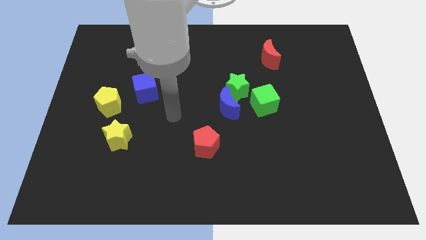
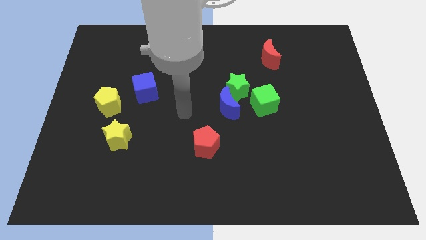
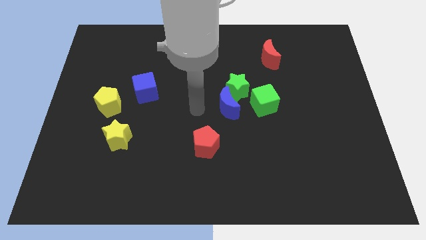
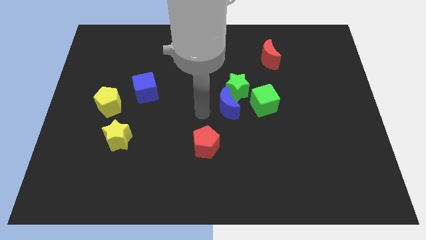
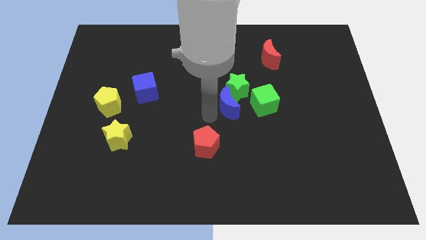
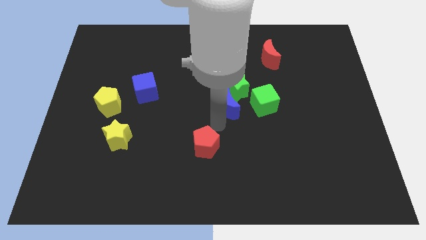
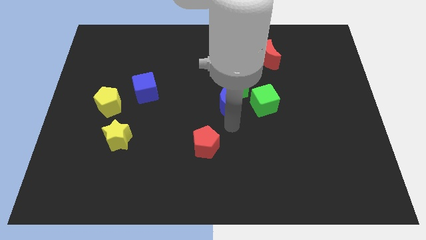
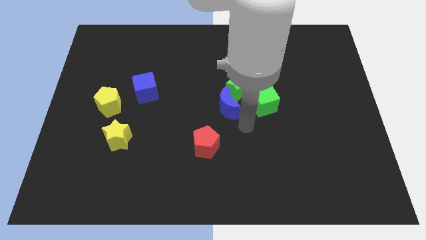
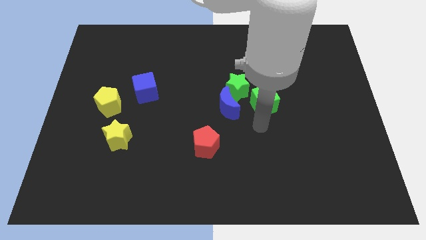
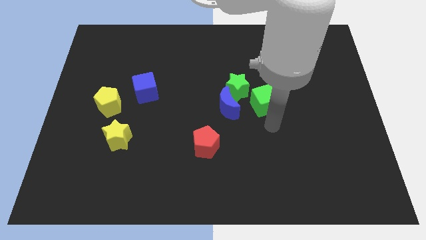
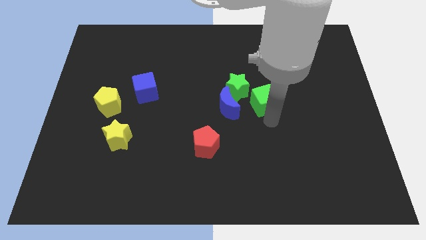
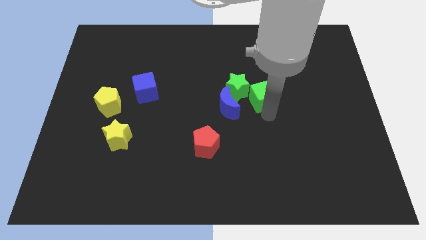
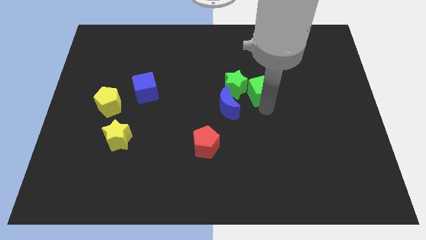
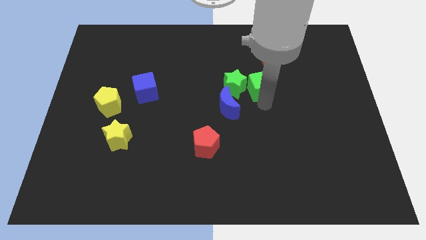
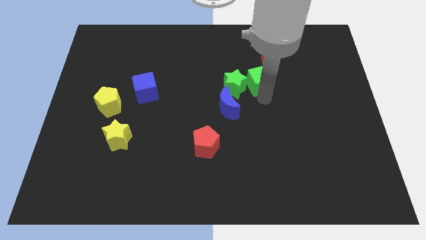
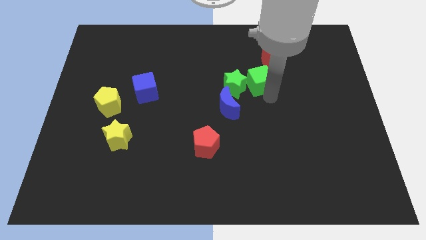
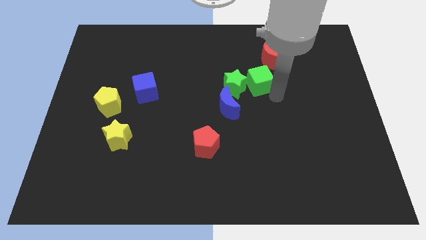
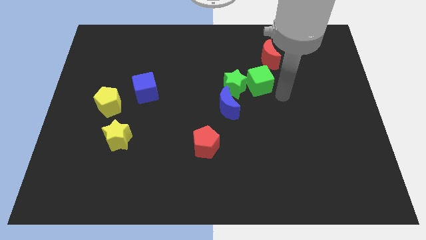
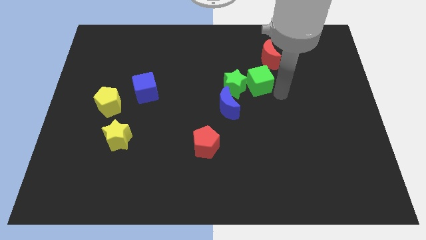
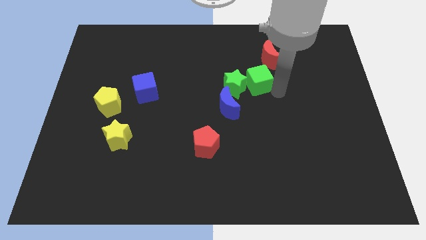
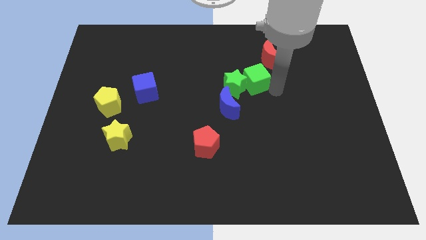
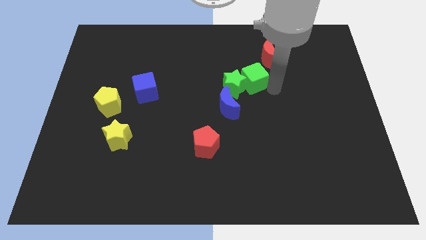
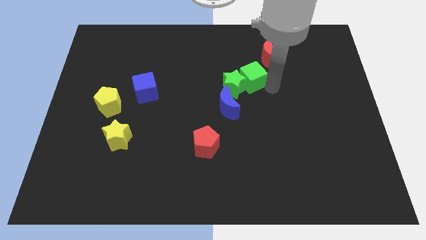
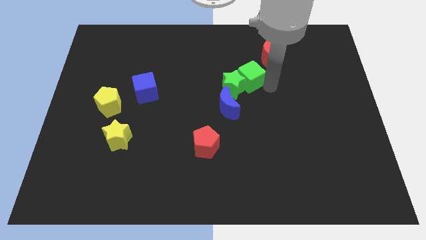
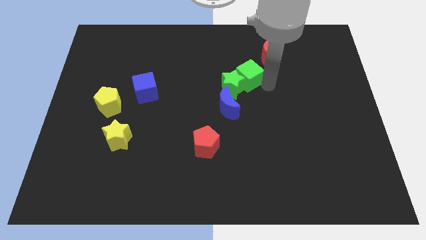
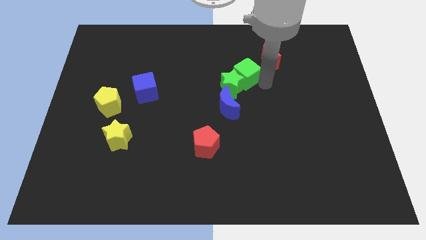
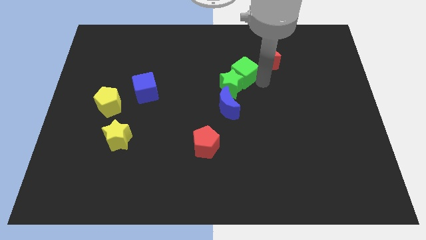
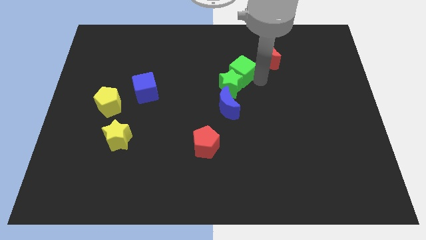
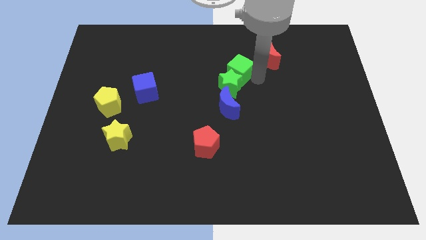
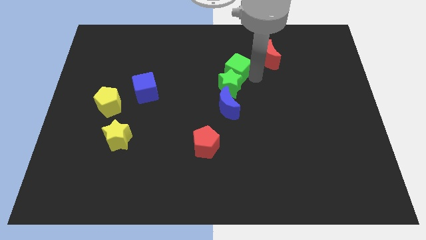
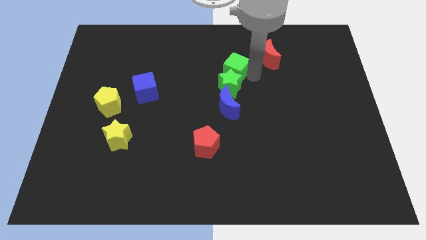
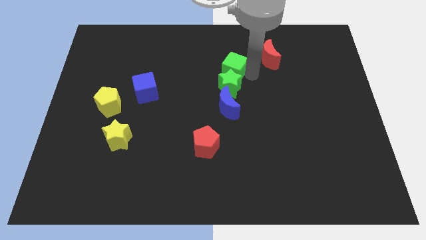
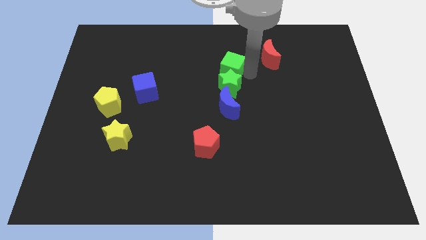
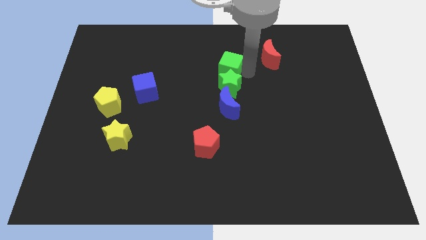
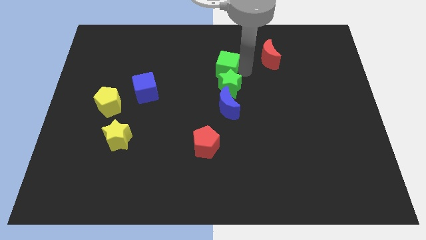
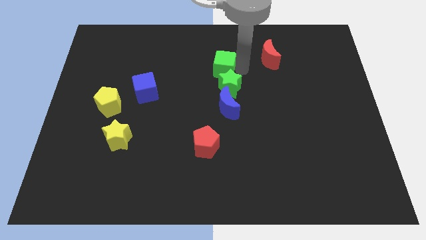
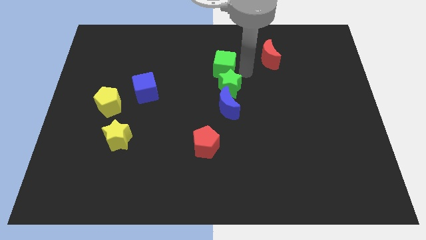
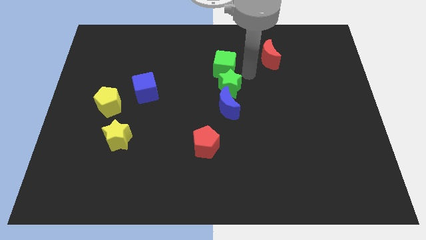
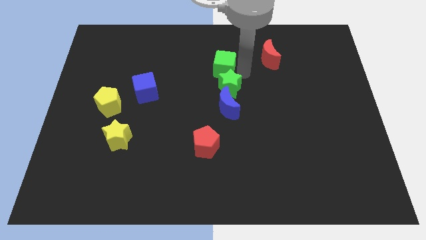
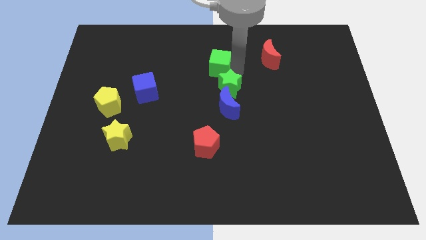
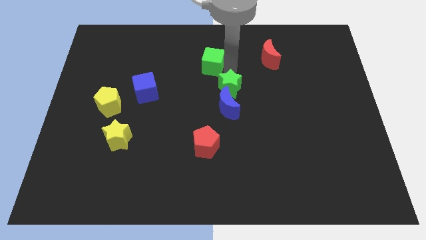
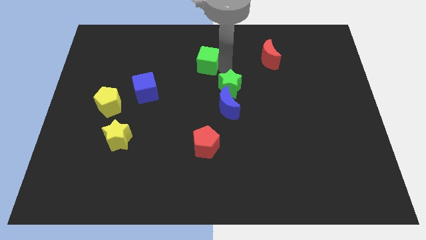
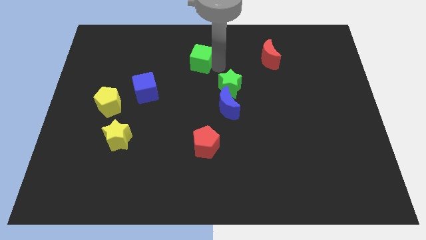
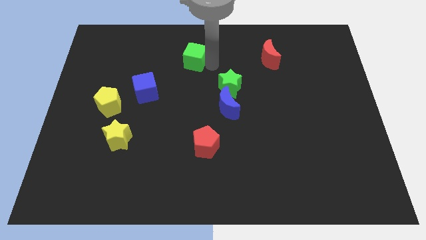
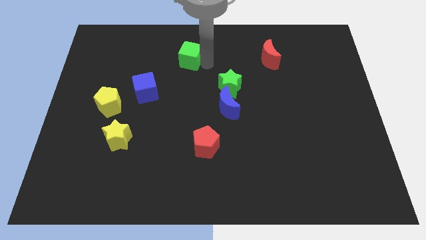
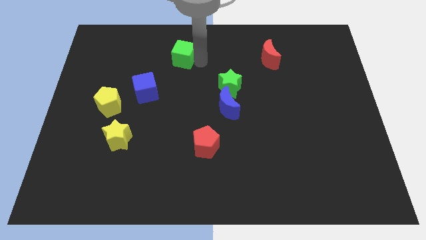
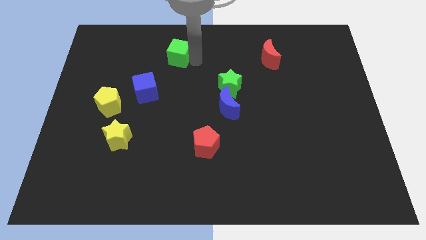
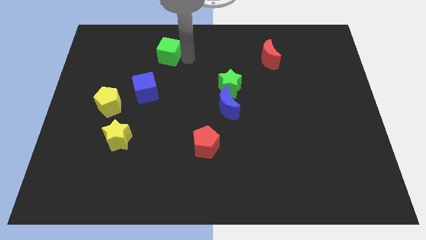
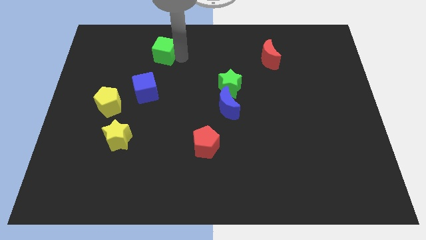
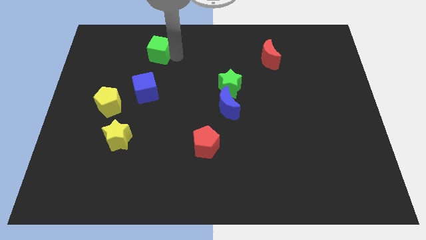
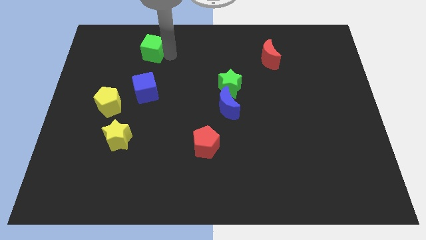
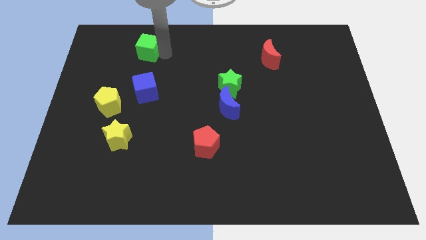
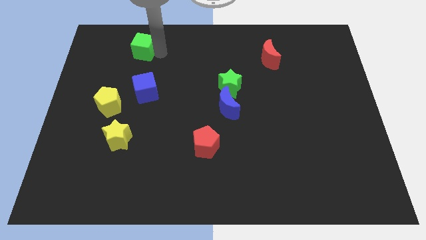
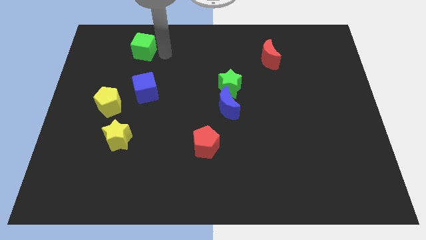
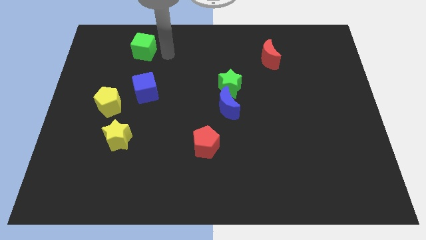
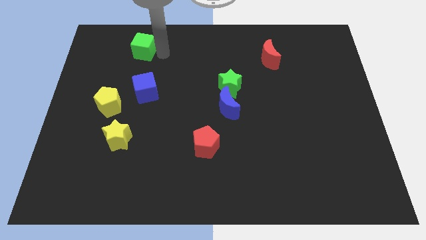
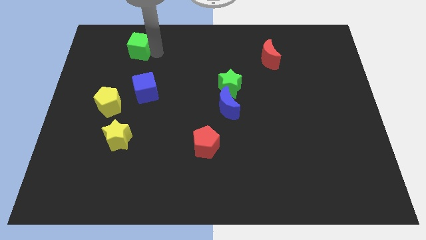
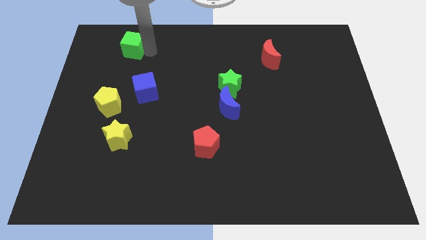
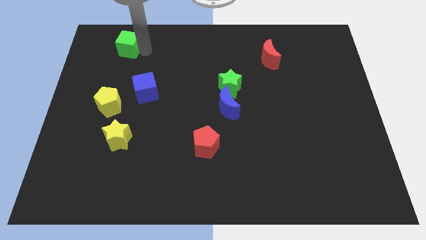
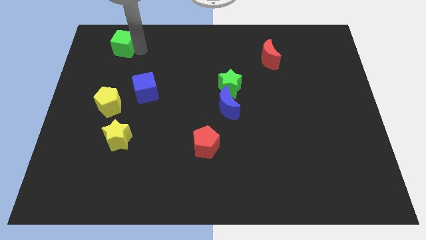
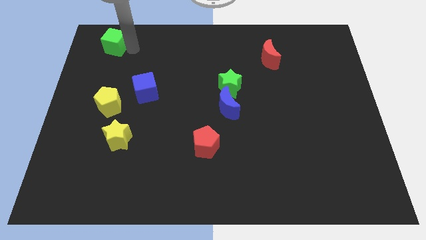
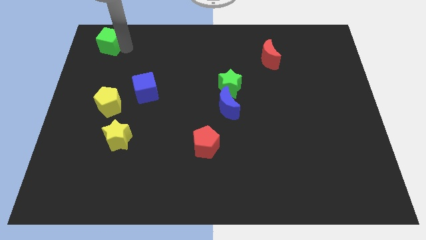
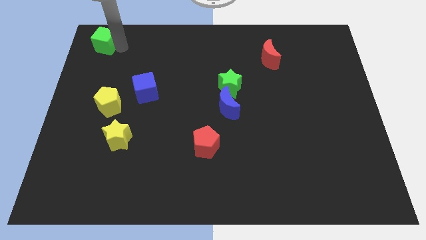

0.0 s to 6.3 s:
push the green cube to the top left of the board
